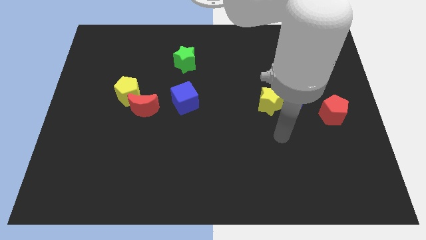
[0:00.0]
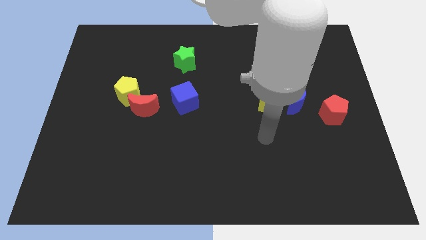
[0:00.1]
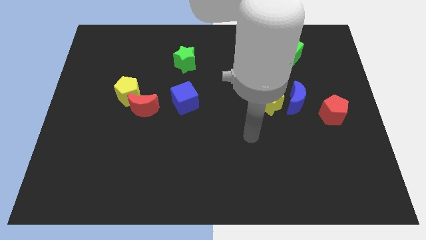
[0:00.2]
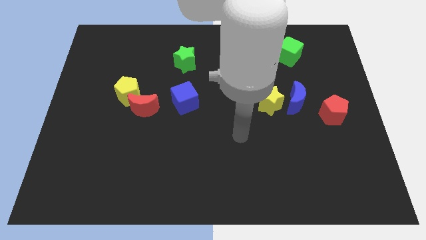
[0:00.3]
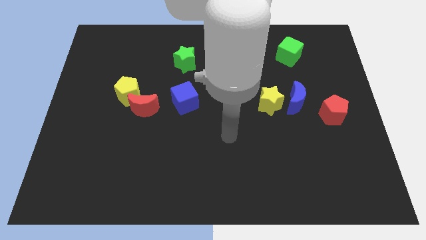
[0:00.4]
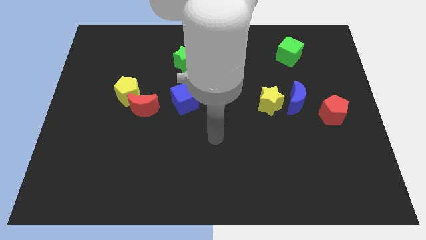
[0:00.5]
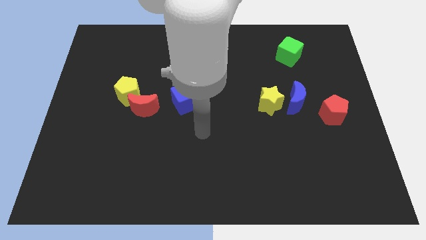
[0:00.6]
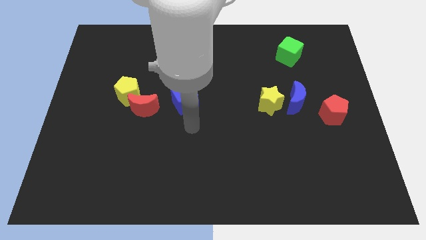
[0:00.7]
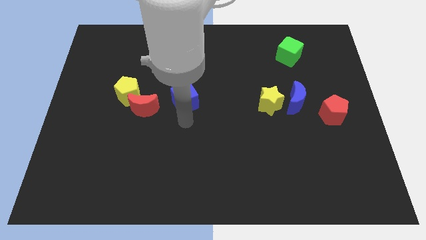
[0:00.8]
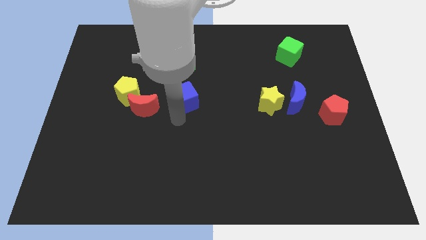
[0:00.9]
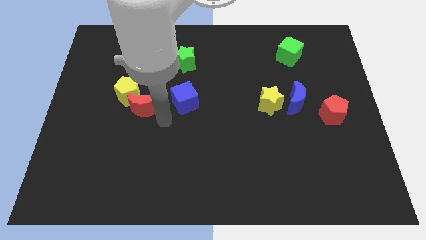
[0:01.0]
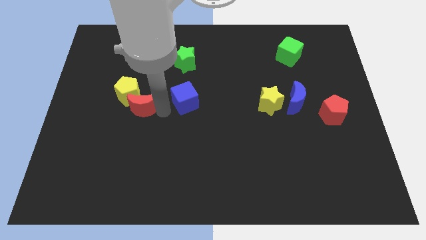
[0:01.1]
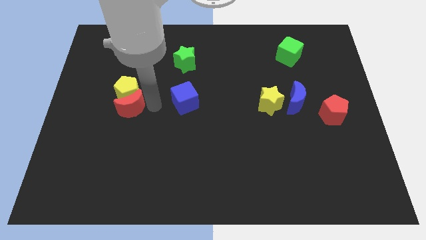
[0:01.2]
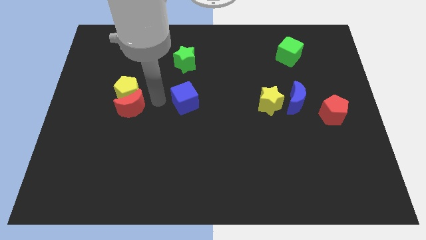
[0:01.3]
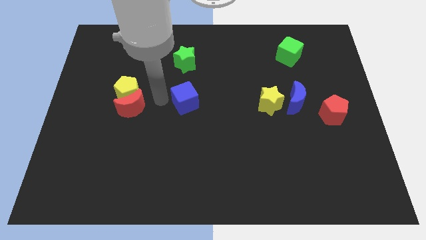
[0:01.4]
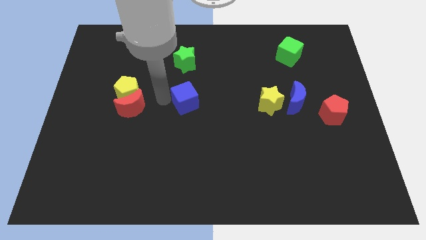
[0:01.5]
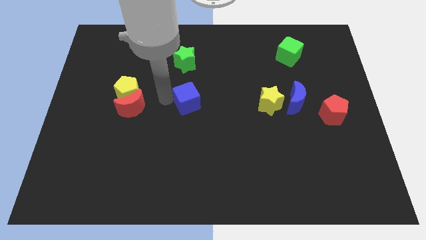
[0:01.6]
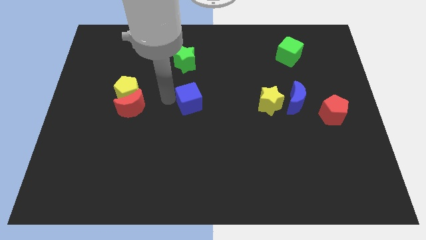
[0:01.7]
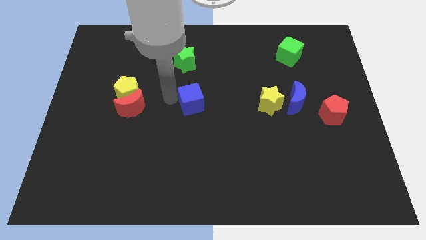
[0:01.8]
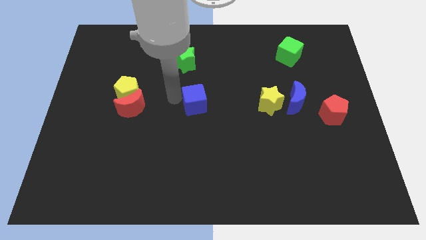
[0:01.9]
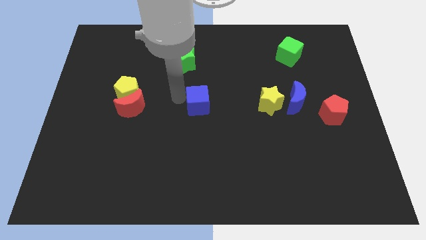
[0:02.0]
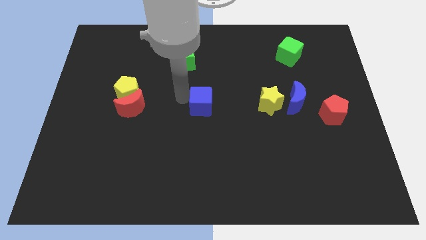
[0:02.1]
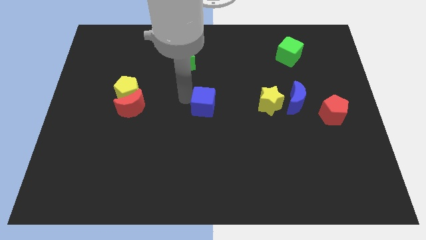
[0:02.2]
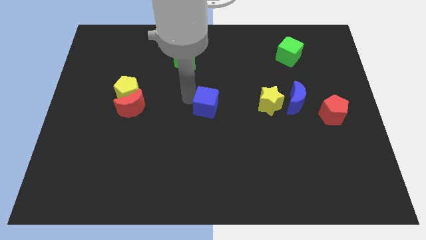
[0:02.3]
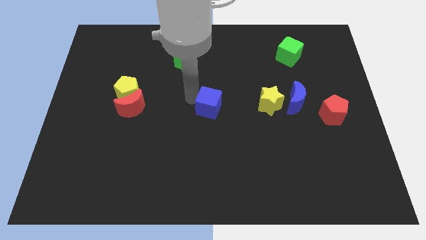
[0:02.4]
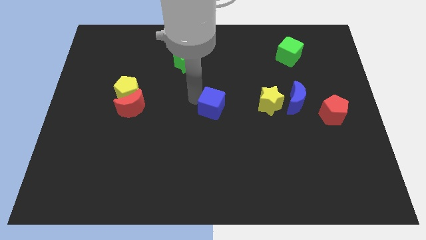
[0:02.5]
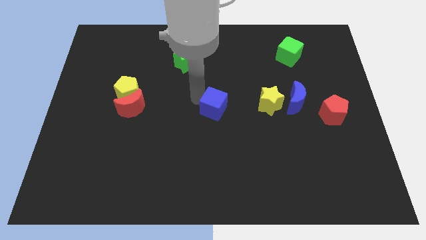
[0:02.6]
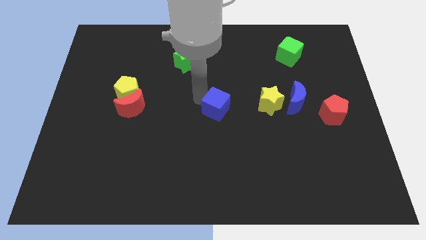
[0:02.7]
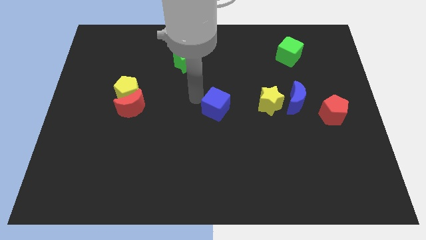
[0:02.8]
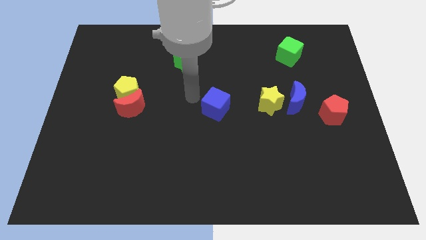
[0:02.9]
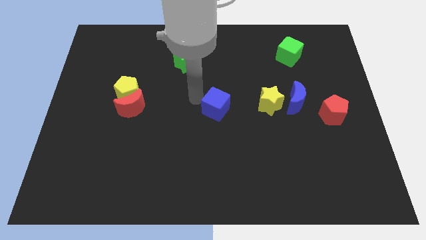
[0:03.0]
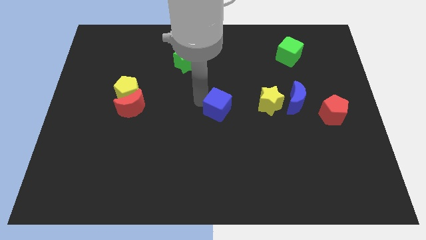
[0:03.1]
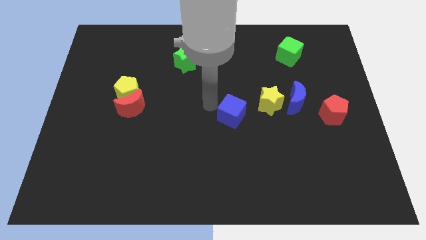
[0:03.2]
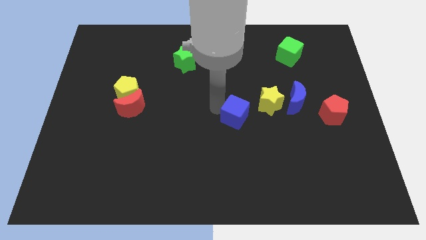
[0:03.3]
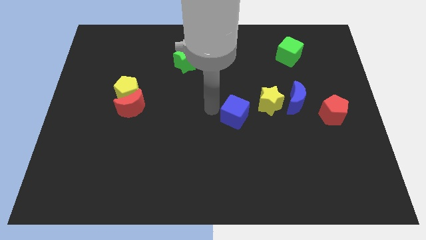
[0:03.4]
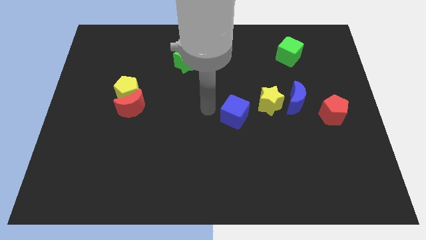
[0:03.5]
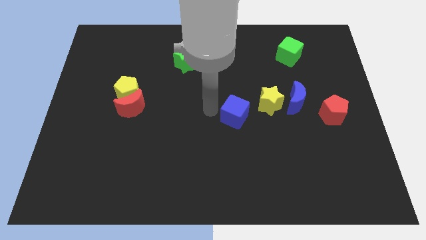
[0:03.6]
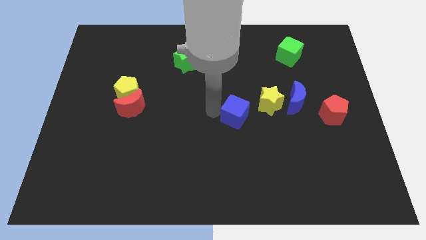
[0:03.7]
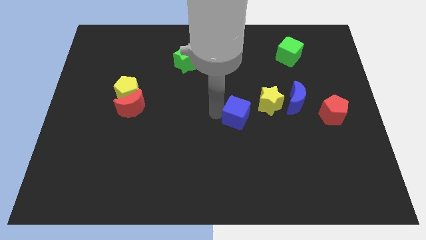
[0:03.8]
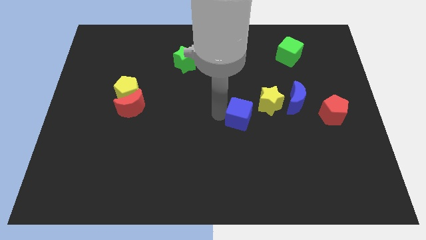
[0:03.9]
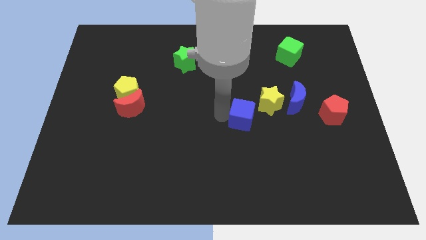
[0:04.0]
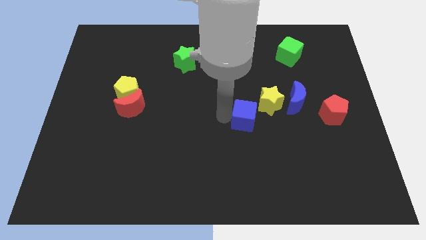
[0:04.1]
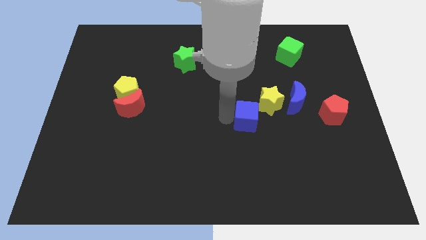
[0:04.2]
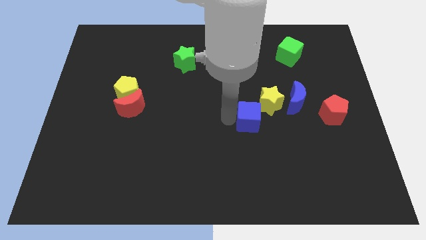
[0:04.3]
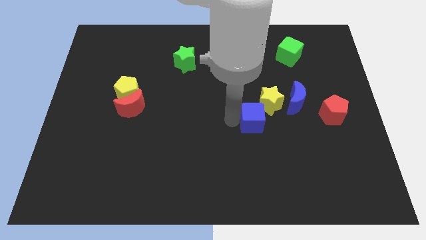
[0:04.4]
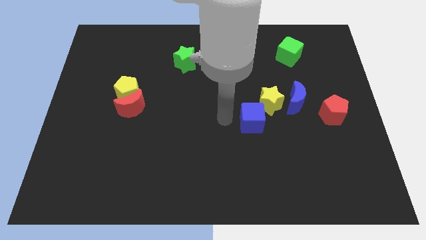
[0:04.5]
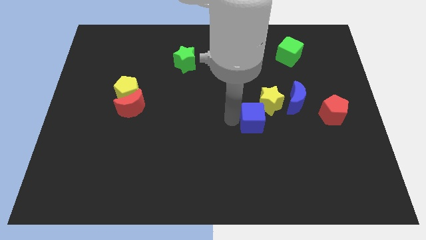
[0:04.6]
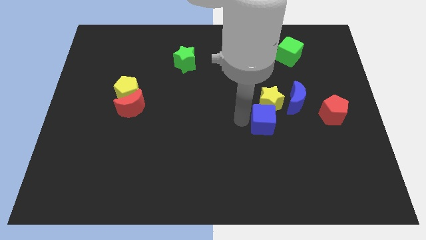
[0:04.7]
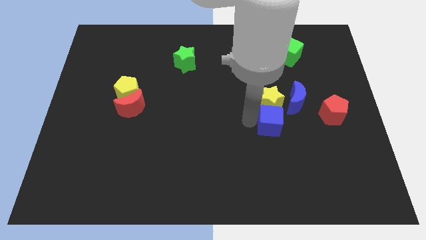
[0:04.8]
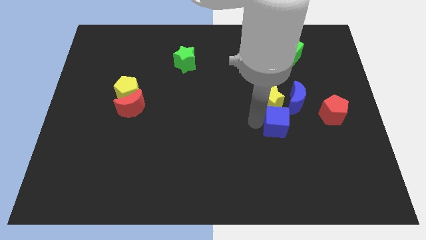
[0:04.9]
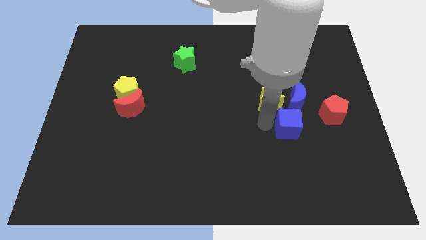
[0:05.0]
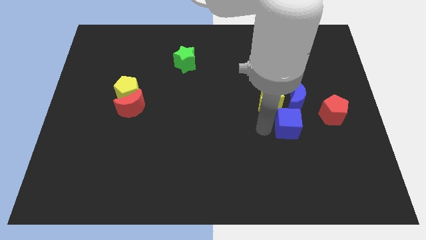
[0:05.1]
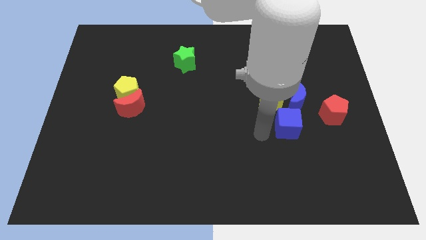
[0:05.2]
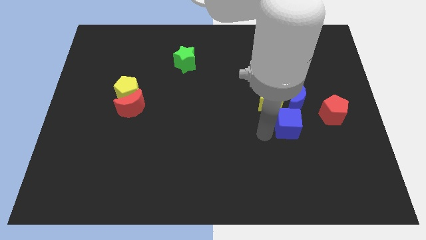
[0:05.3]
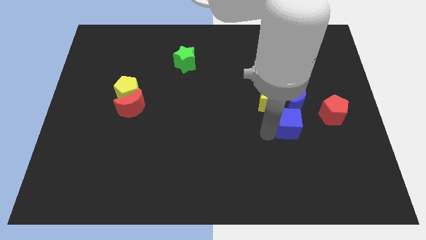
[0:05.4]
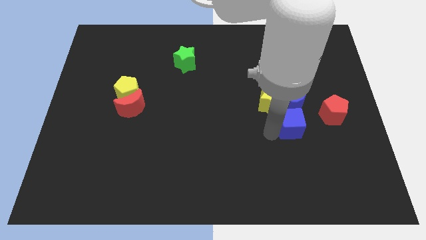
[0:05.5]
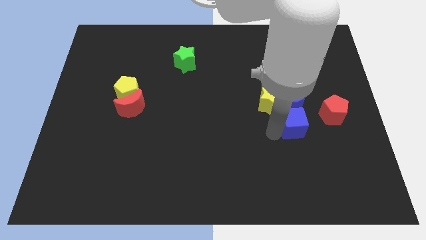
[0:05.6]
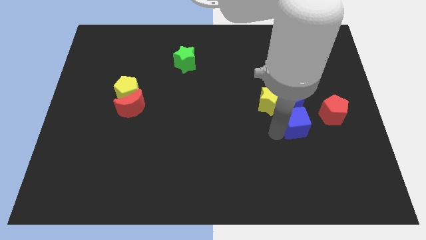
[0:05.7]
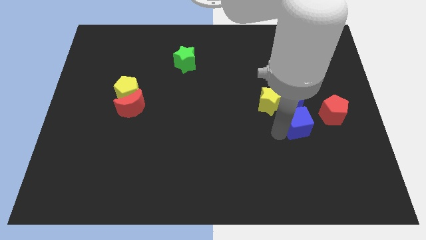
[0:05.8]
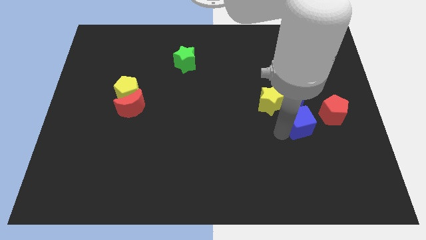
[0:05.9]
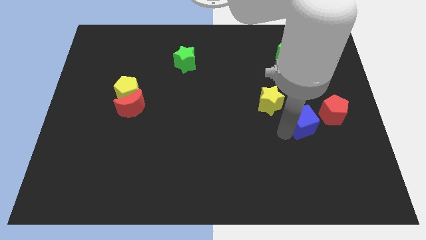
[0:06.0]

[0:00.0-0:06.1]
move the blue cube to the bottom right side of the blue moon

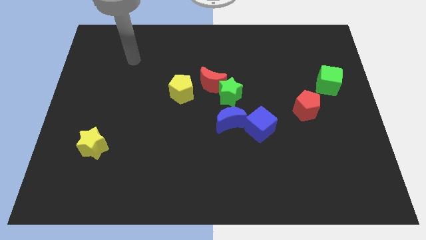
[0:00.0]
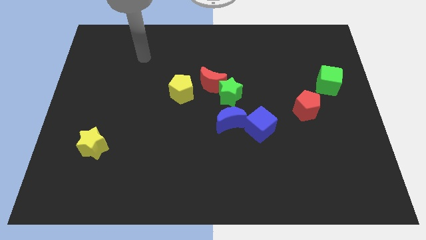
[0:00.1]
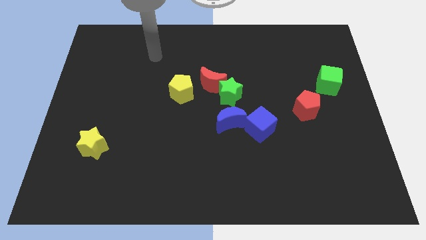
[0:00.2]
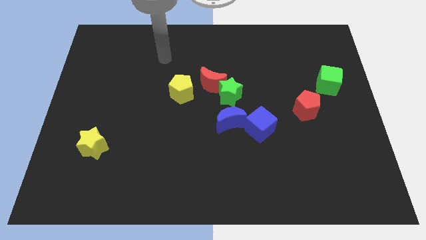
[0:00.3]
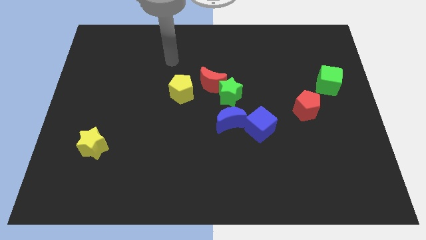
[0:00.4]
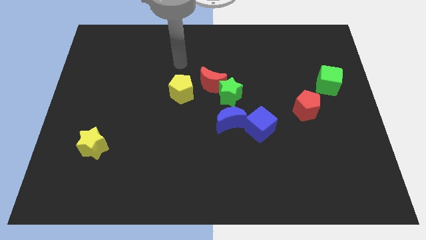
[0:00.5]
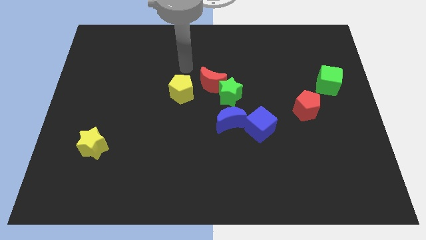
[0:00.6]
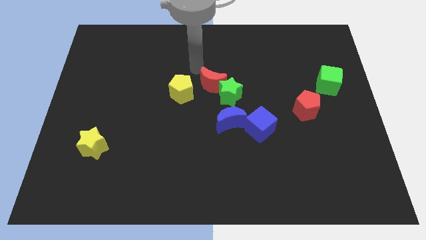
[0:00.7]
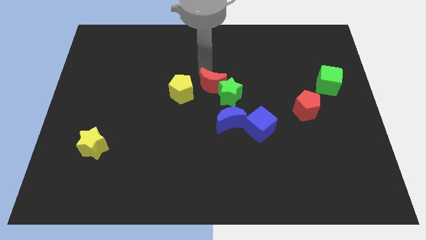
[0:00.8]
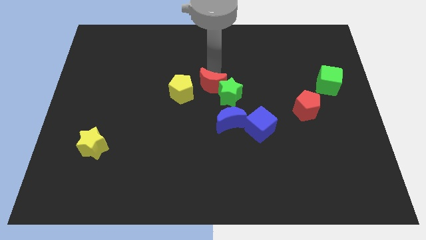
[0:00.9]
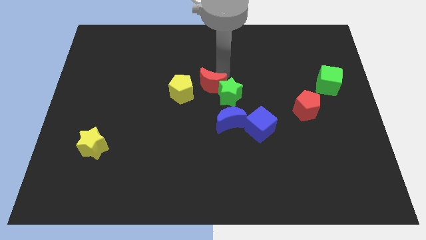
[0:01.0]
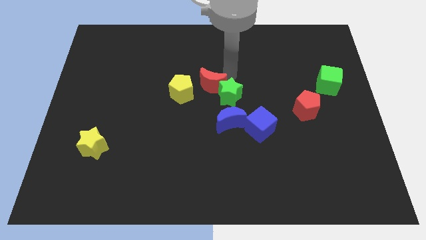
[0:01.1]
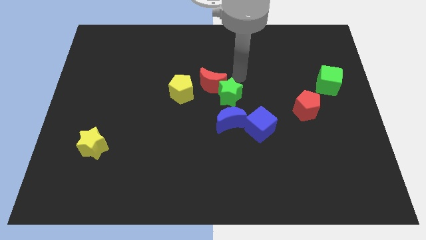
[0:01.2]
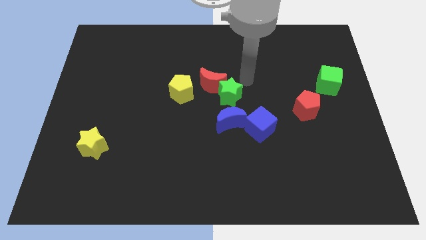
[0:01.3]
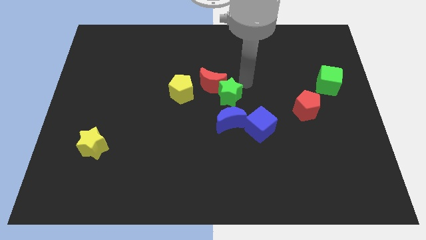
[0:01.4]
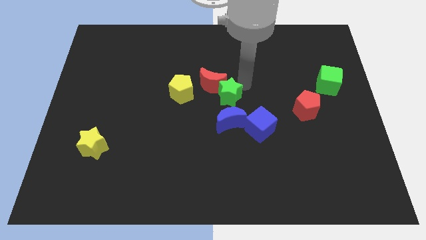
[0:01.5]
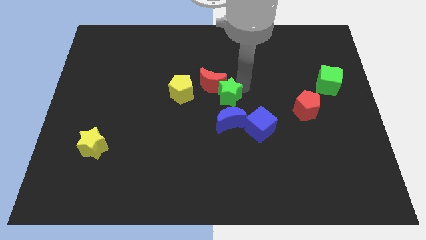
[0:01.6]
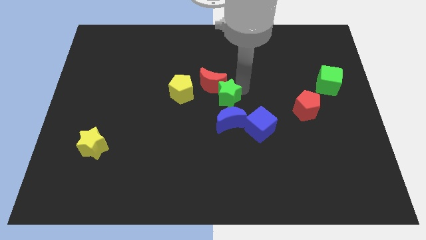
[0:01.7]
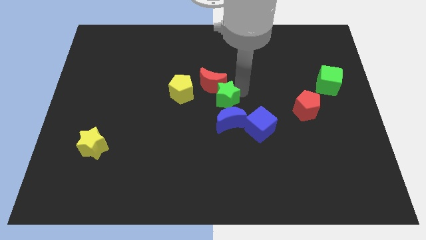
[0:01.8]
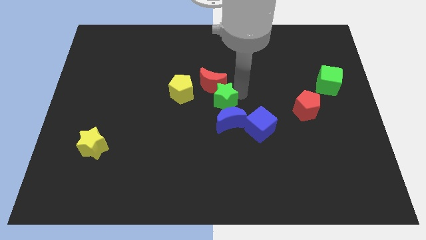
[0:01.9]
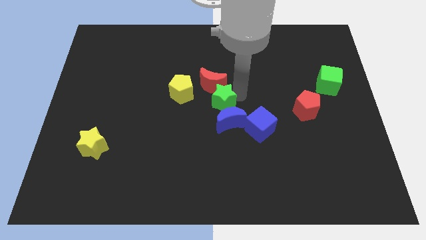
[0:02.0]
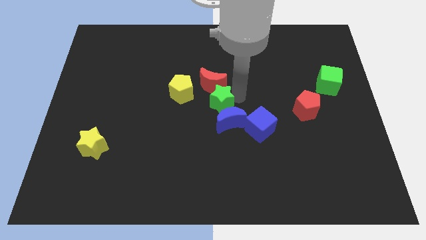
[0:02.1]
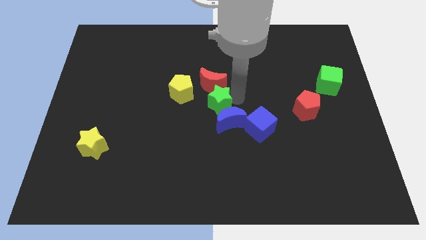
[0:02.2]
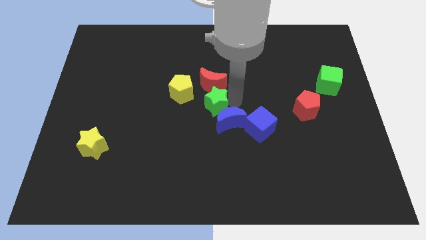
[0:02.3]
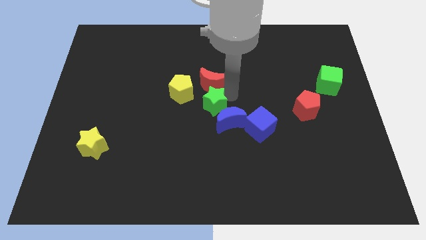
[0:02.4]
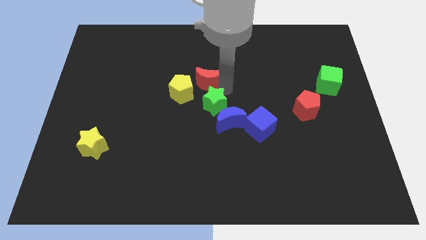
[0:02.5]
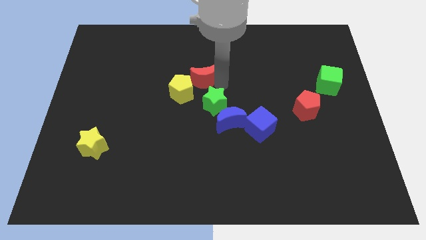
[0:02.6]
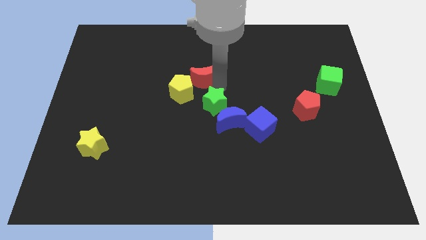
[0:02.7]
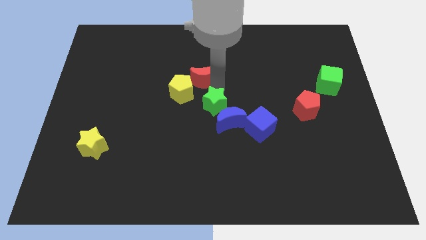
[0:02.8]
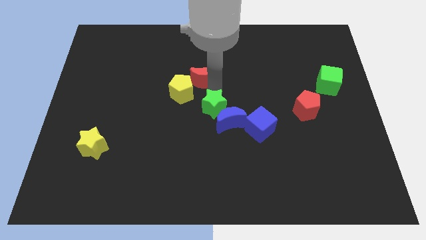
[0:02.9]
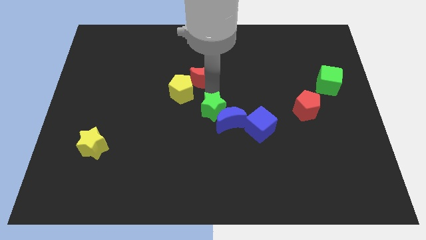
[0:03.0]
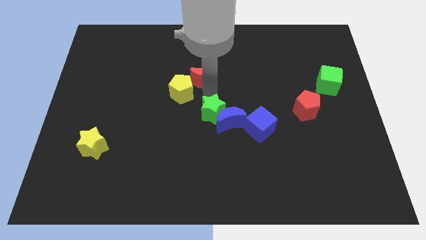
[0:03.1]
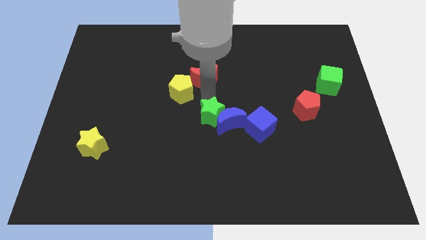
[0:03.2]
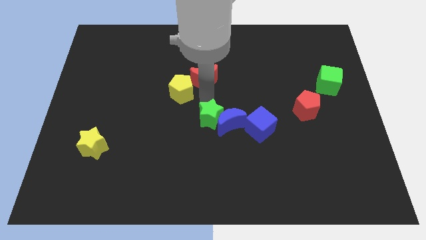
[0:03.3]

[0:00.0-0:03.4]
slide the green star to the bottom left side of the blue moon
